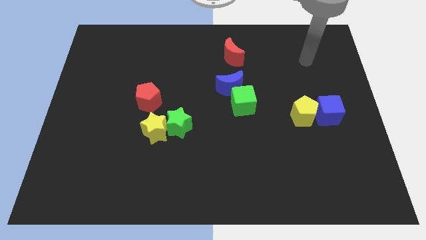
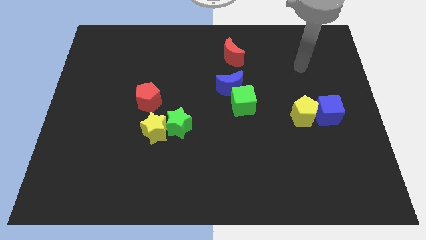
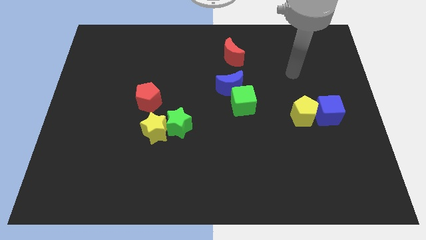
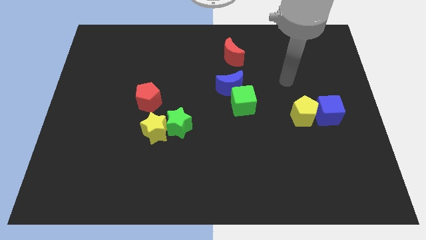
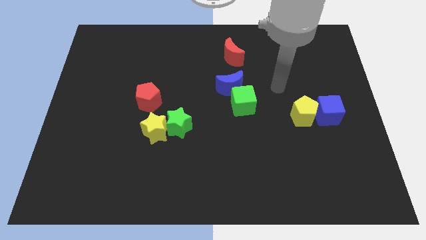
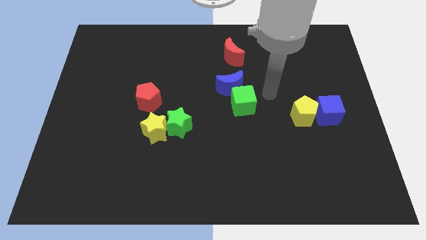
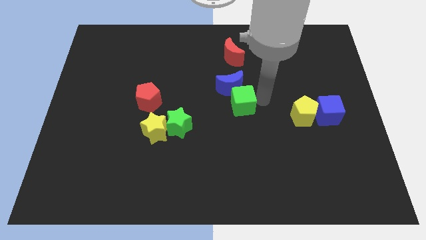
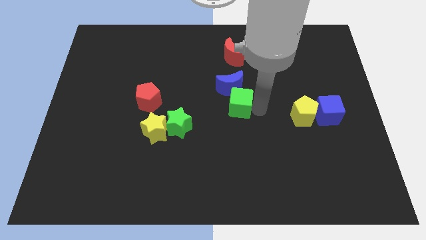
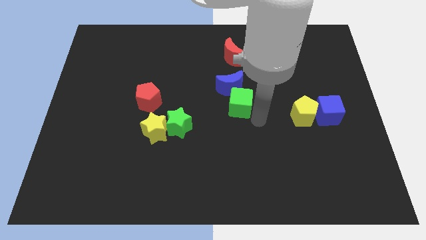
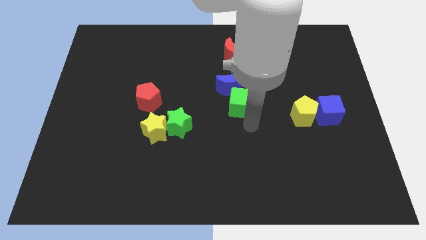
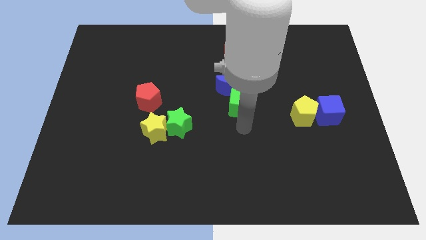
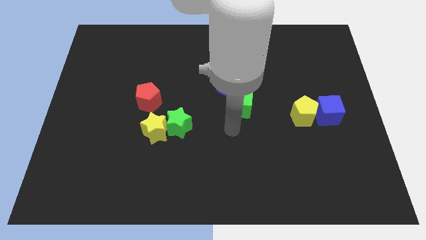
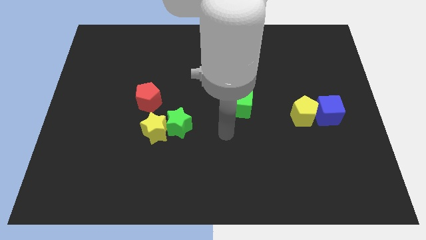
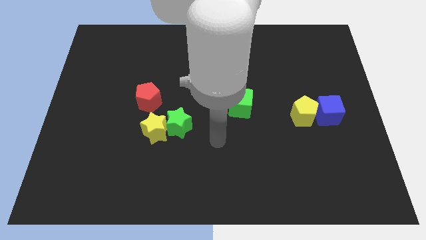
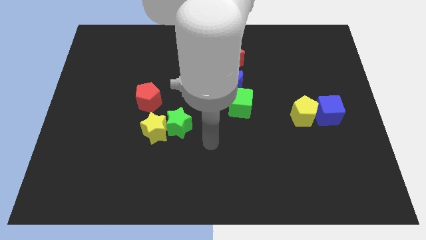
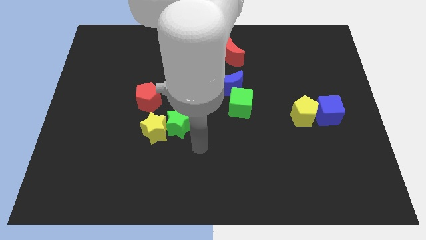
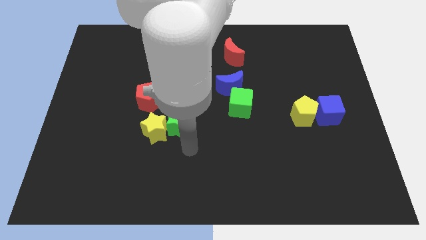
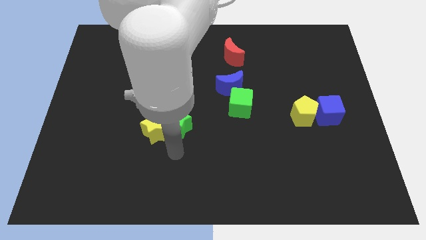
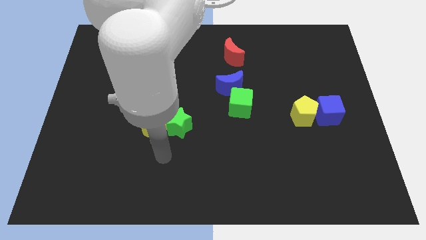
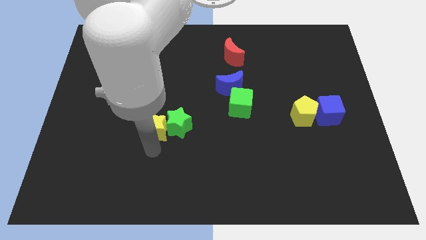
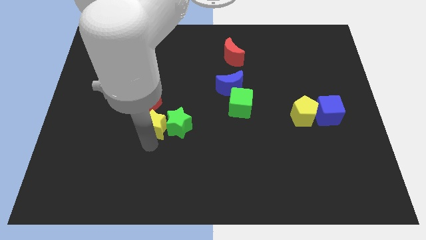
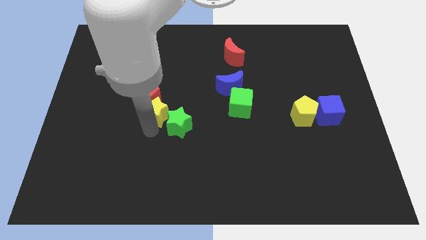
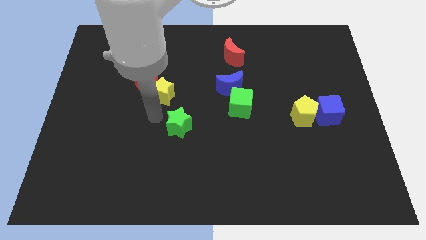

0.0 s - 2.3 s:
pull the green star apart from the yellow star

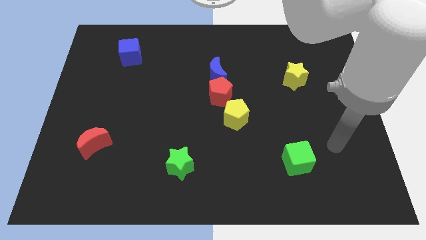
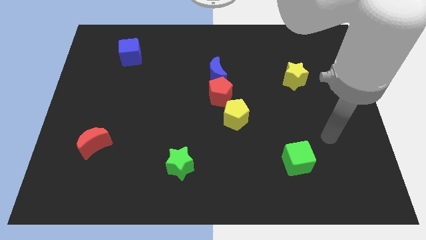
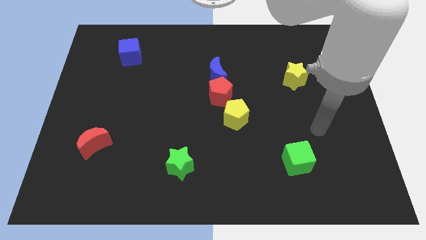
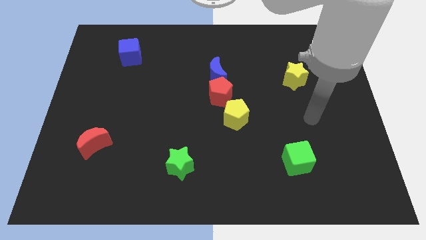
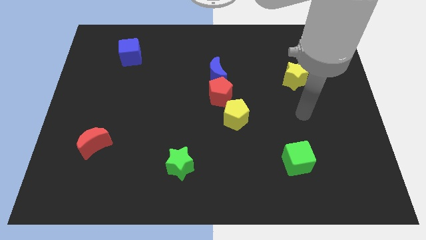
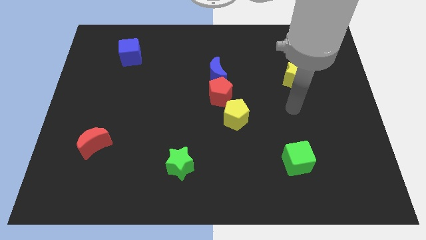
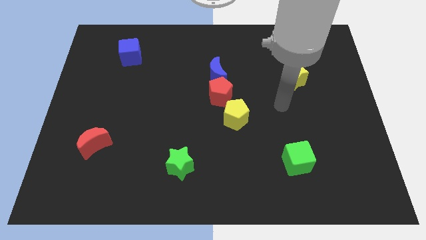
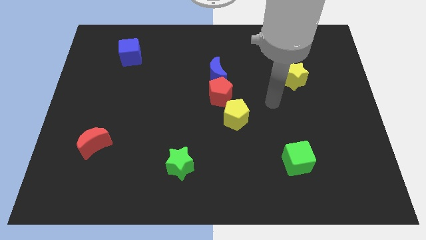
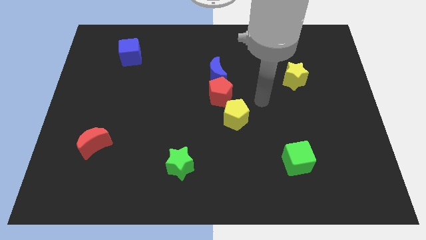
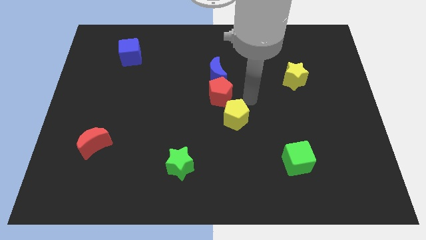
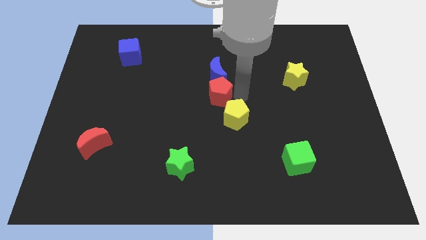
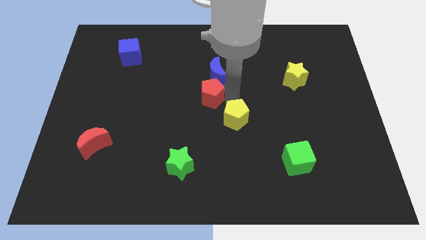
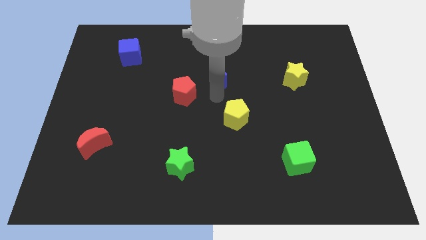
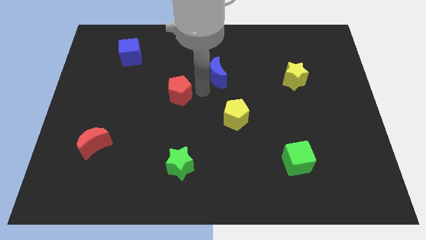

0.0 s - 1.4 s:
pull the blue moon apart from the red pentagon

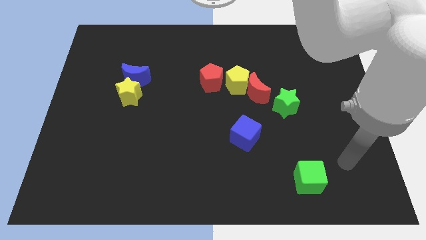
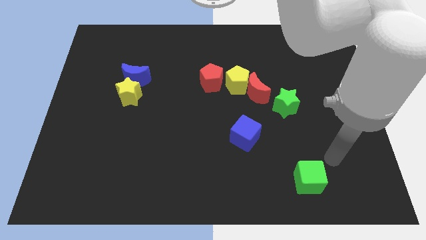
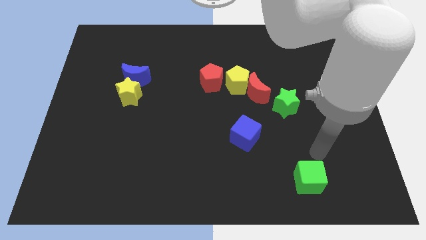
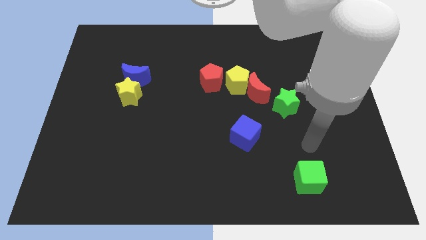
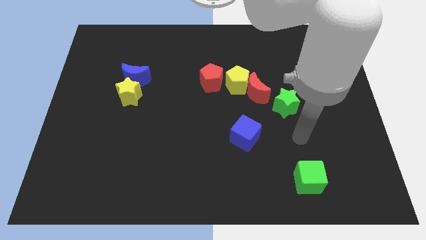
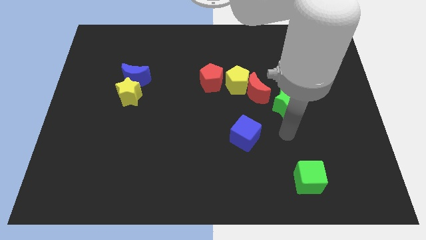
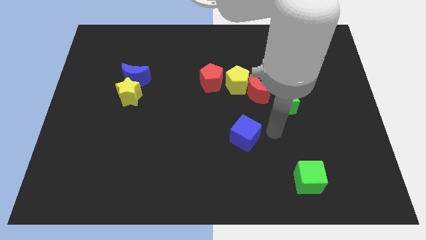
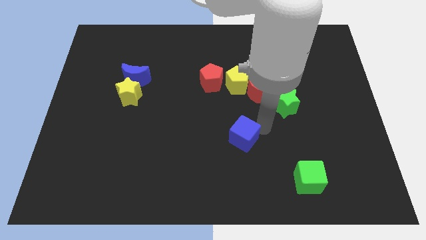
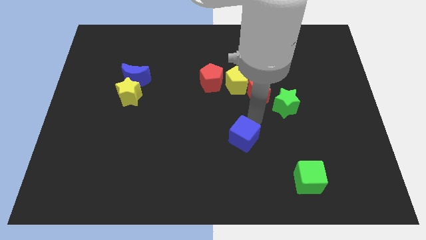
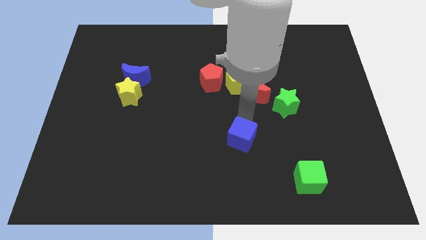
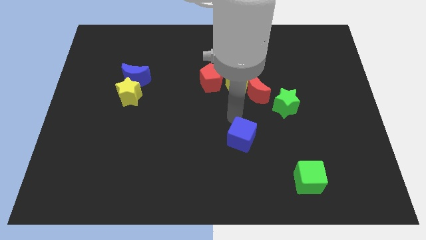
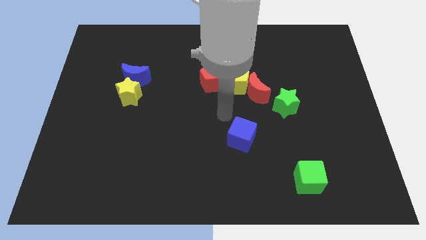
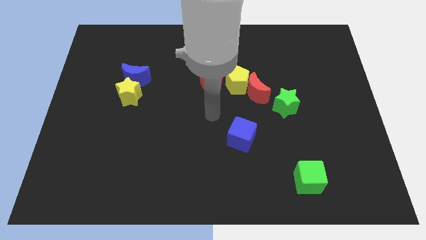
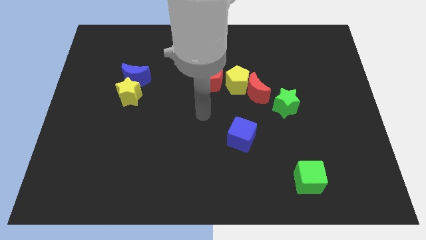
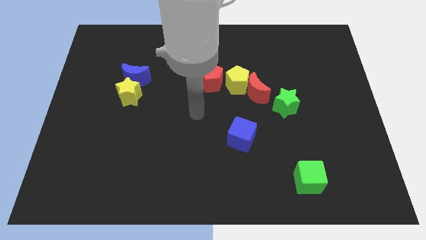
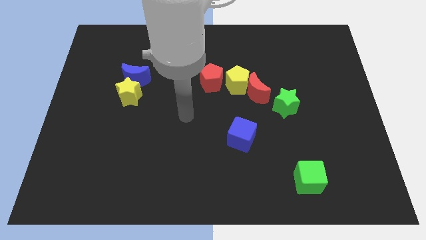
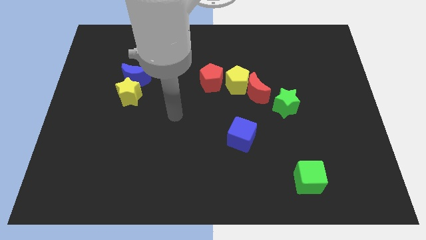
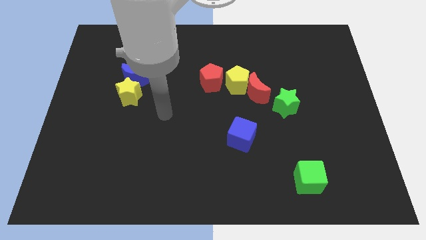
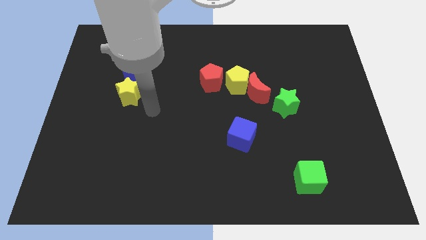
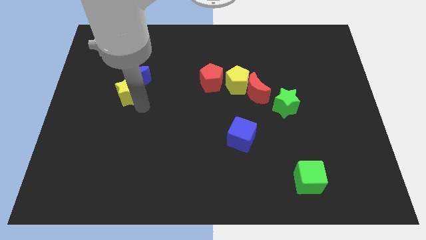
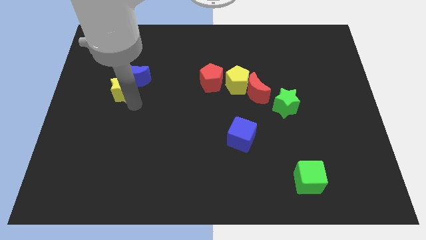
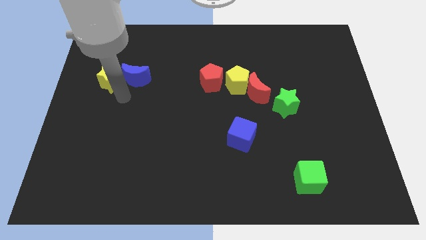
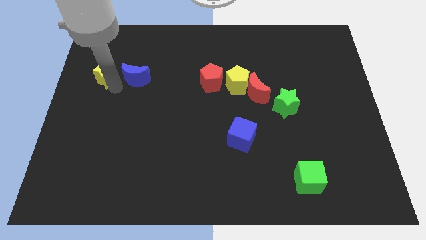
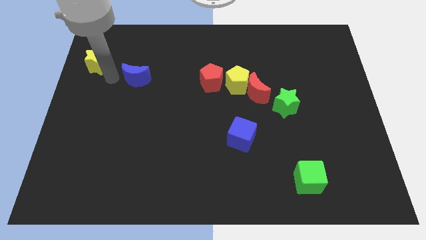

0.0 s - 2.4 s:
separate the blue moon from the yellow star

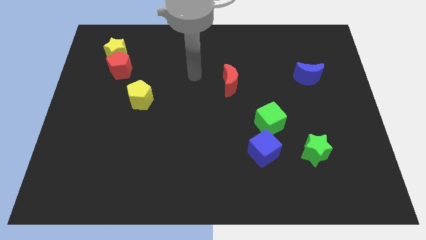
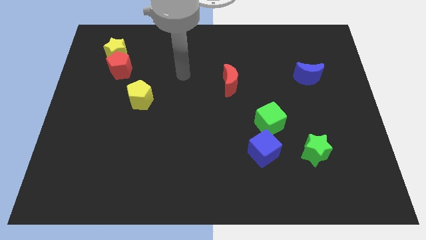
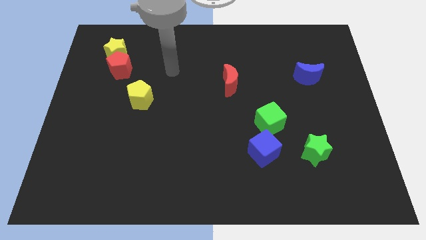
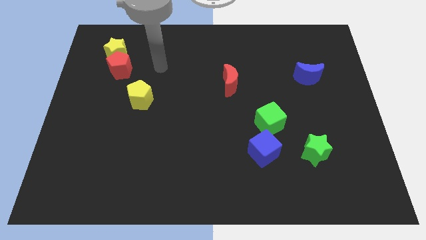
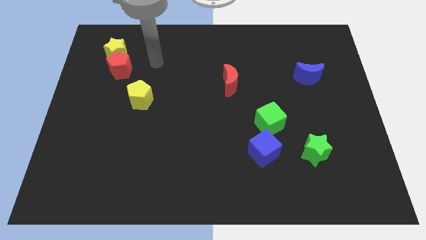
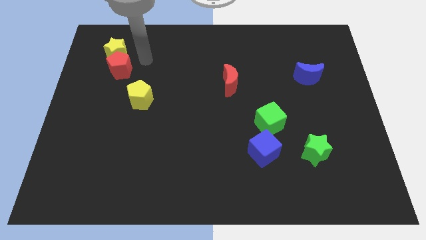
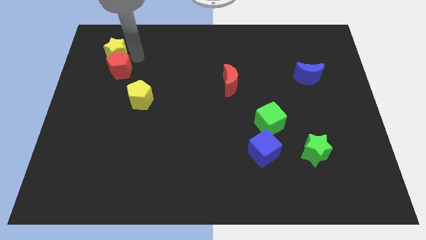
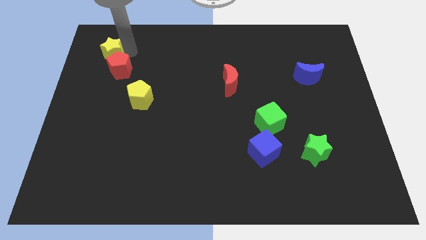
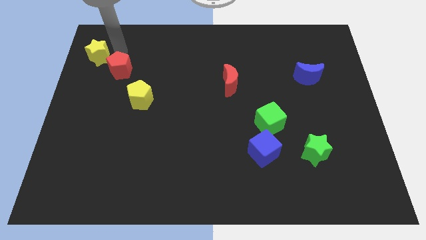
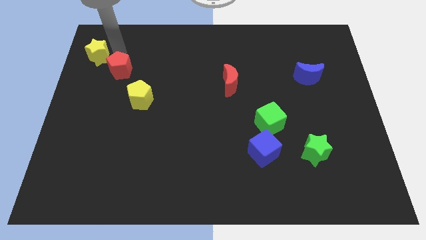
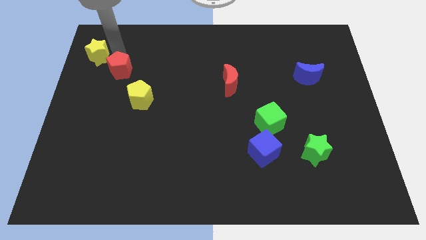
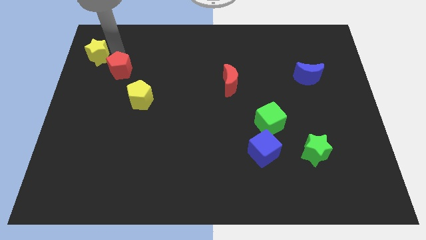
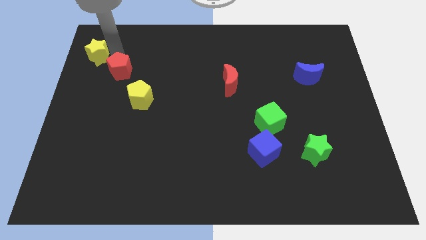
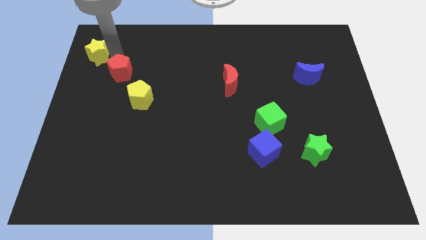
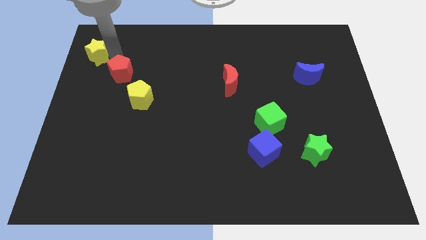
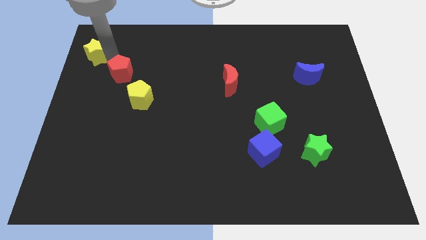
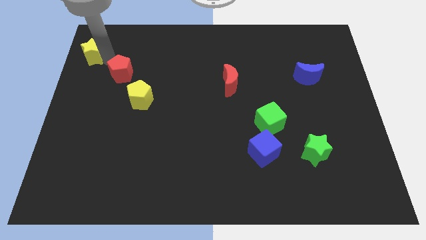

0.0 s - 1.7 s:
separate the red pentagon from the yellow star

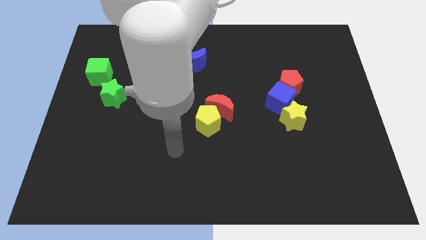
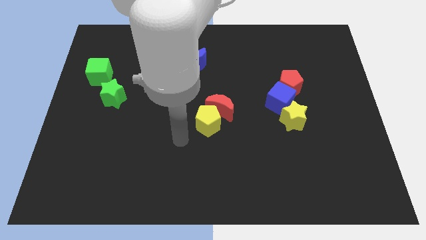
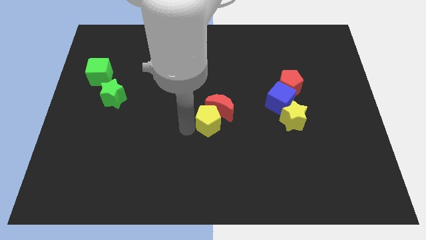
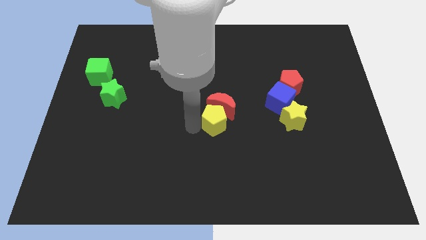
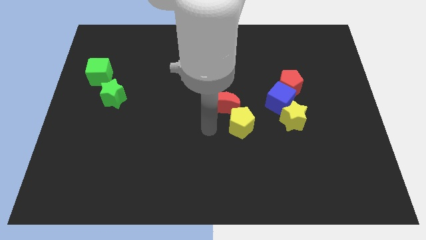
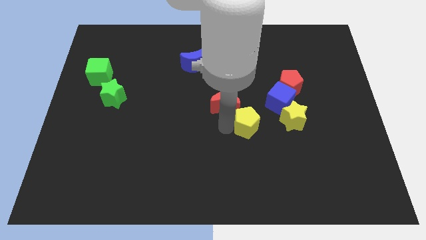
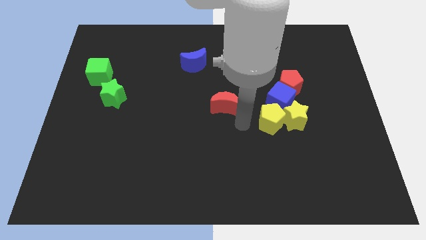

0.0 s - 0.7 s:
pull the red moon apart from the yellow pentagon

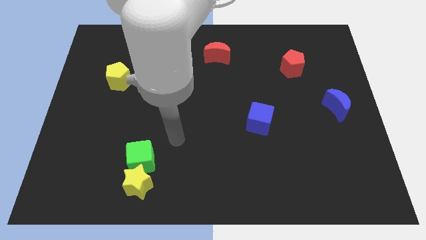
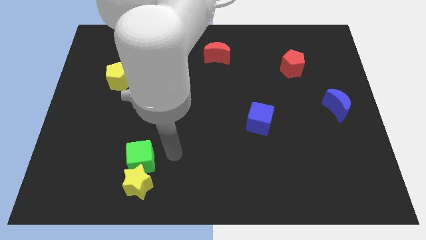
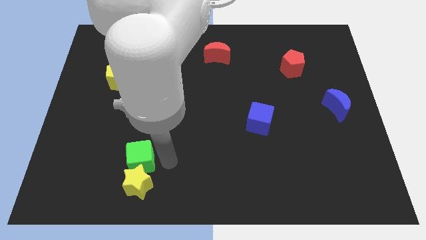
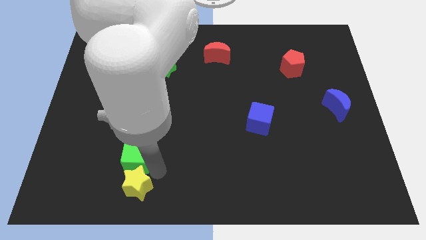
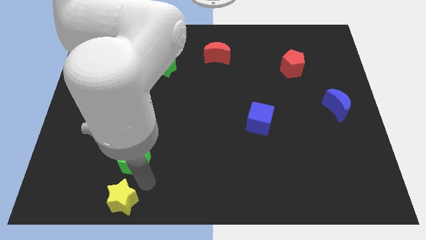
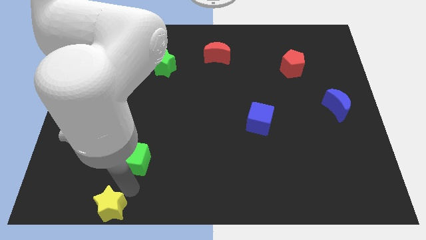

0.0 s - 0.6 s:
move the green cube away from the yellow star

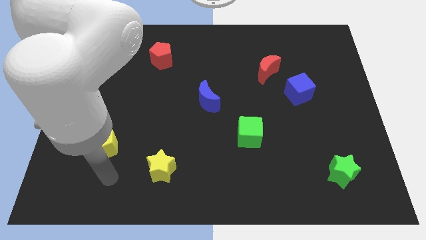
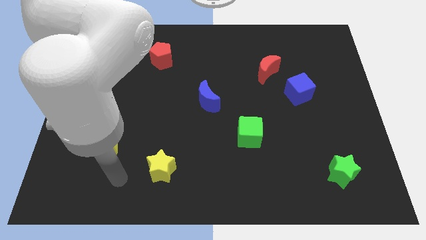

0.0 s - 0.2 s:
pull the red moon apart from the blue cube

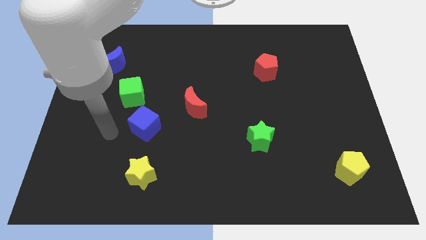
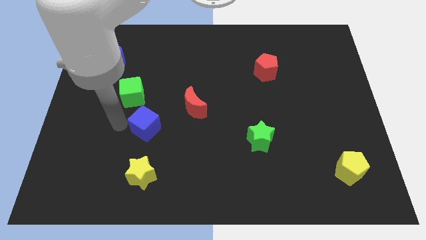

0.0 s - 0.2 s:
pull the blue cube apart from the green cube
